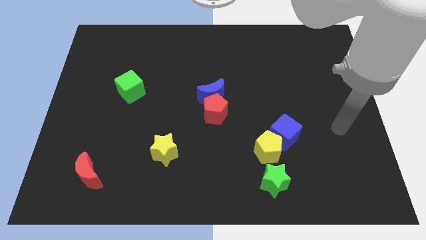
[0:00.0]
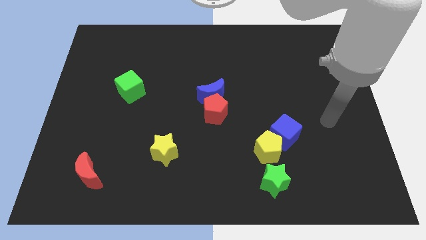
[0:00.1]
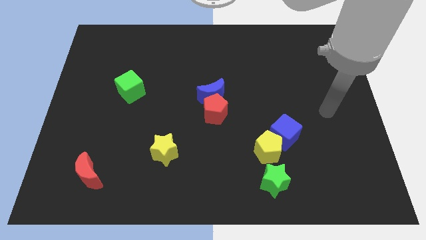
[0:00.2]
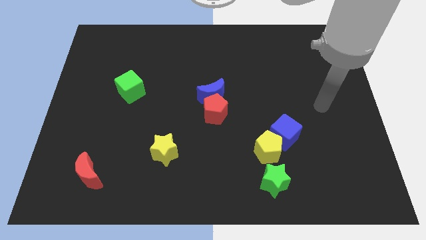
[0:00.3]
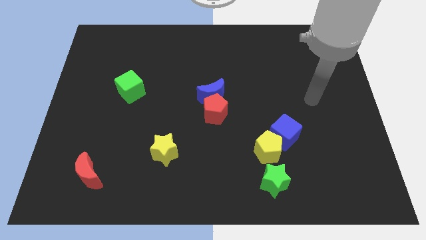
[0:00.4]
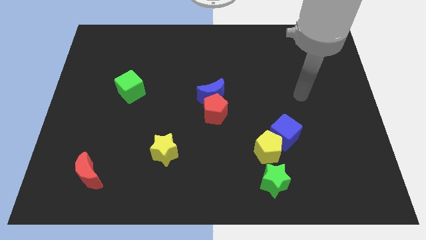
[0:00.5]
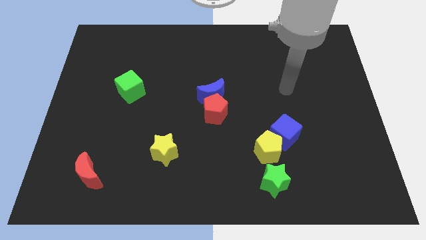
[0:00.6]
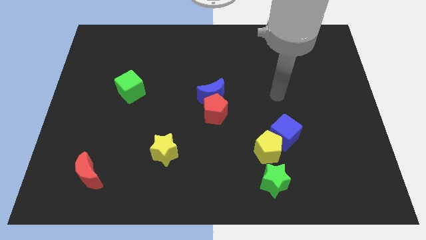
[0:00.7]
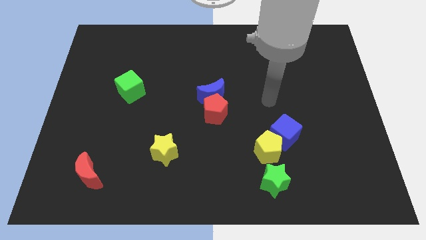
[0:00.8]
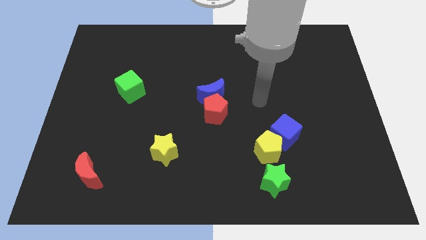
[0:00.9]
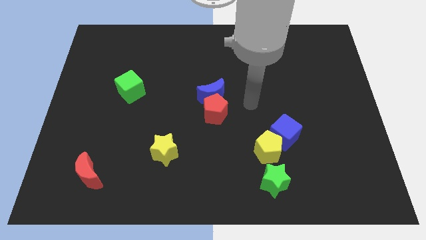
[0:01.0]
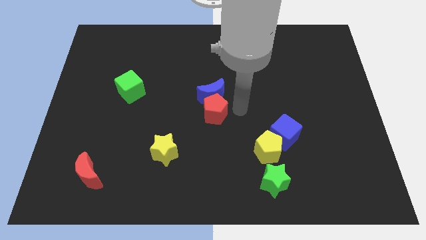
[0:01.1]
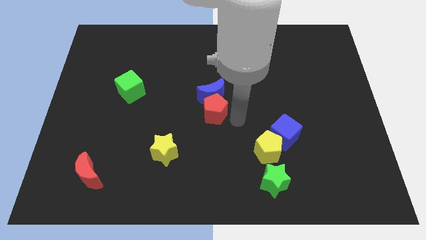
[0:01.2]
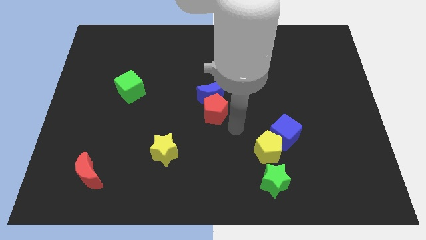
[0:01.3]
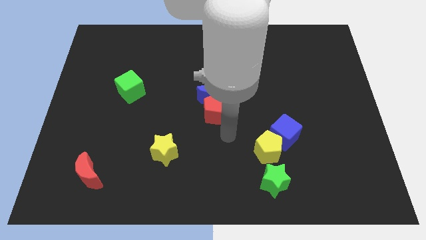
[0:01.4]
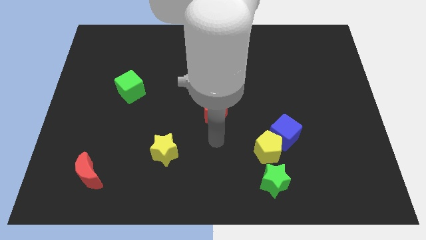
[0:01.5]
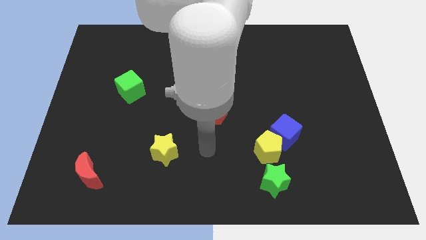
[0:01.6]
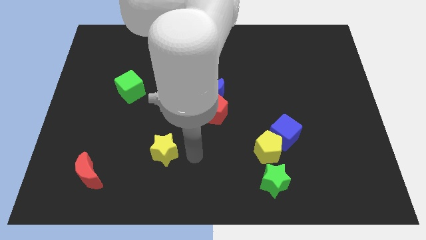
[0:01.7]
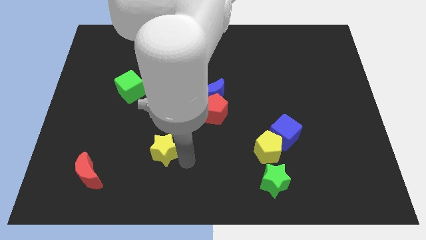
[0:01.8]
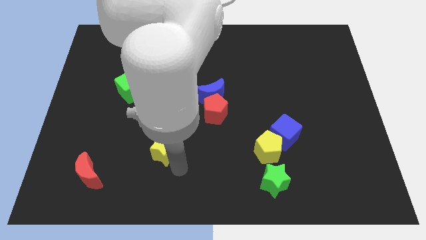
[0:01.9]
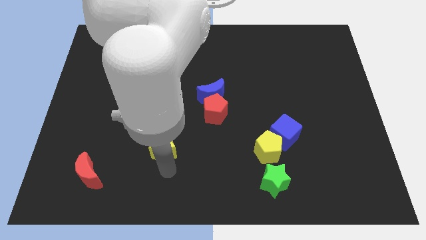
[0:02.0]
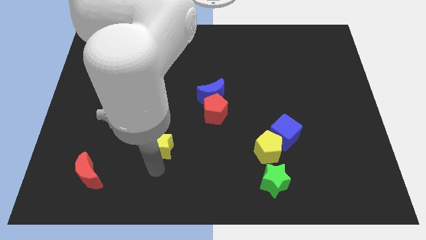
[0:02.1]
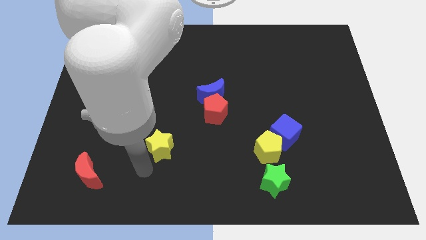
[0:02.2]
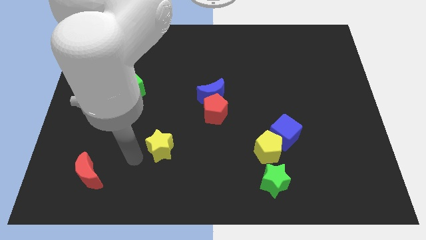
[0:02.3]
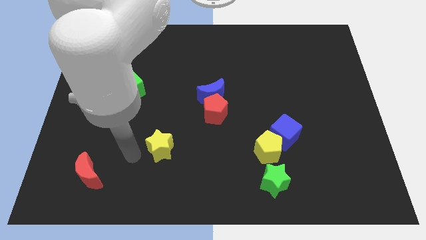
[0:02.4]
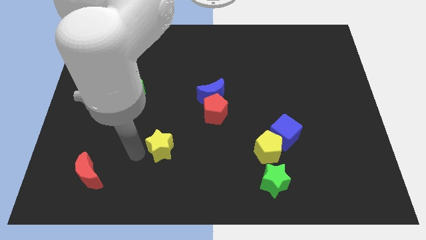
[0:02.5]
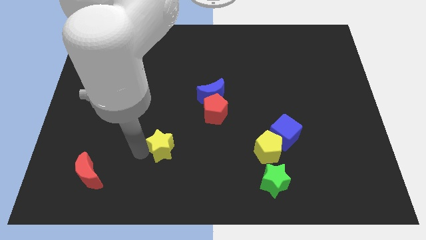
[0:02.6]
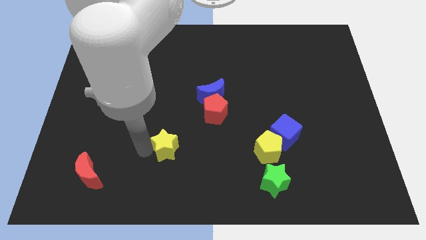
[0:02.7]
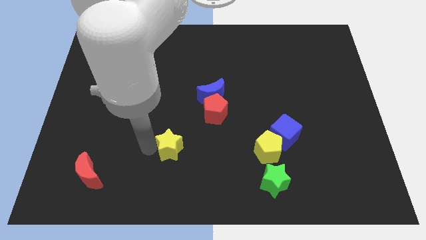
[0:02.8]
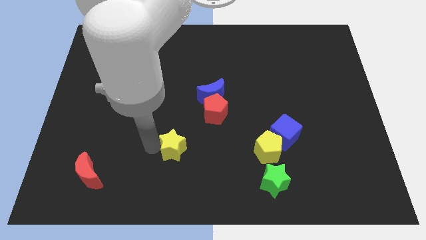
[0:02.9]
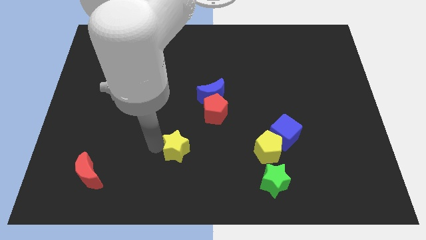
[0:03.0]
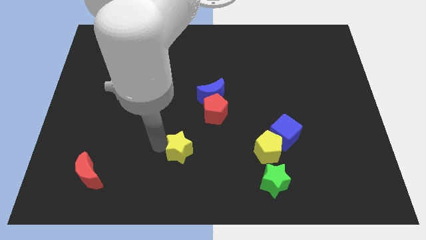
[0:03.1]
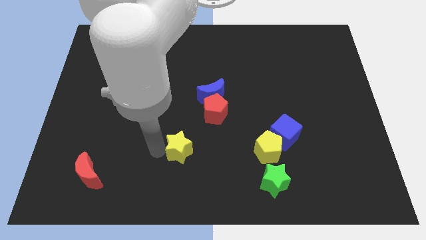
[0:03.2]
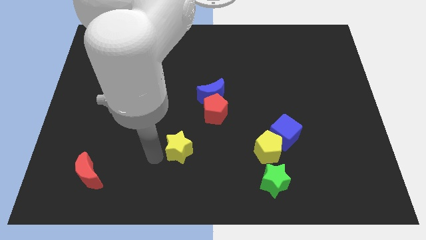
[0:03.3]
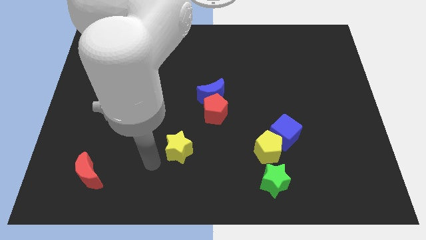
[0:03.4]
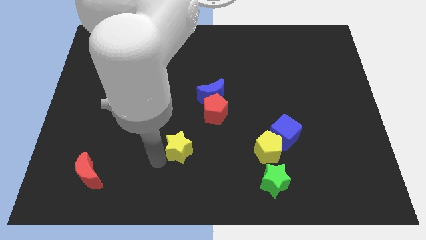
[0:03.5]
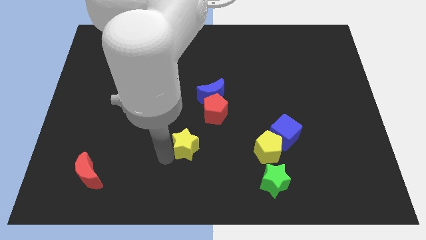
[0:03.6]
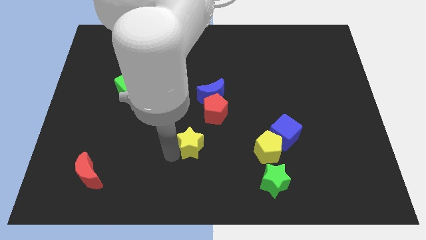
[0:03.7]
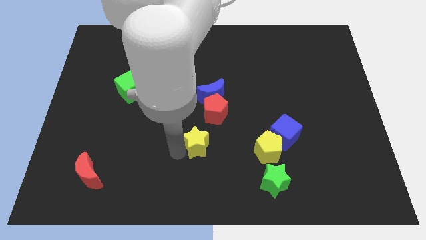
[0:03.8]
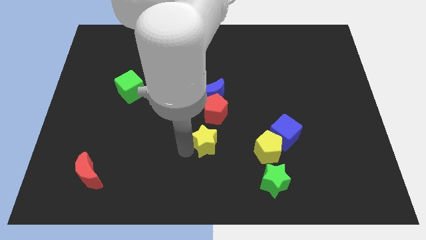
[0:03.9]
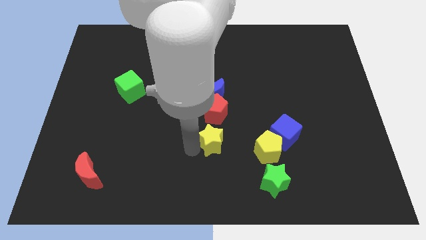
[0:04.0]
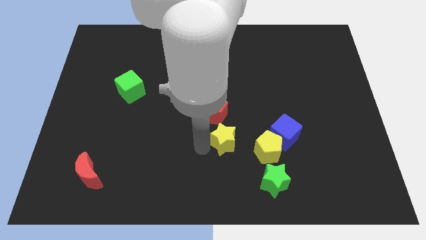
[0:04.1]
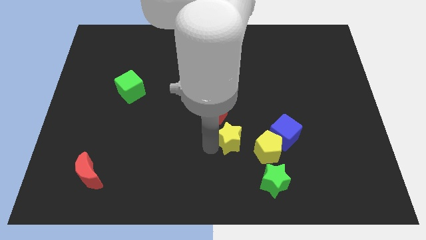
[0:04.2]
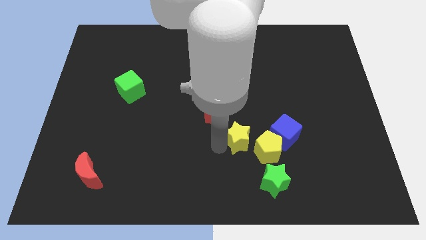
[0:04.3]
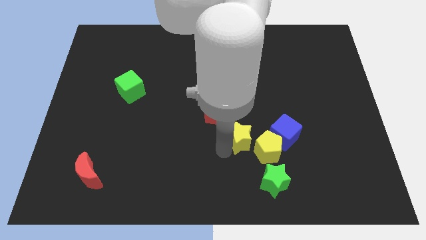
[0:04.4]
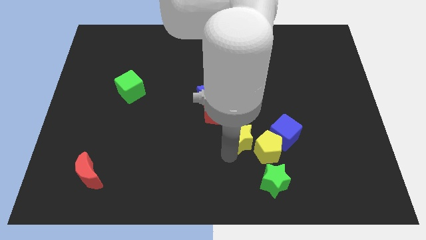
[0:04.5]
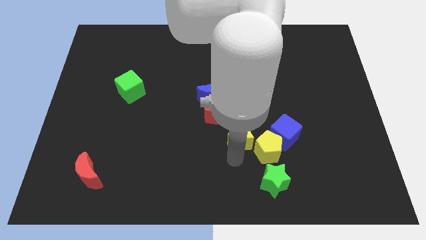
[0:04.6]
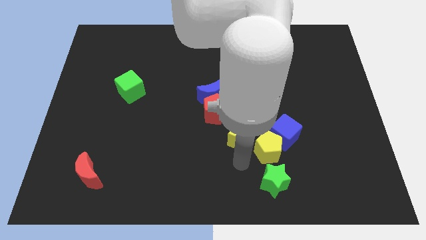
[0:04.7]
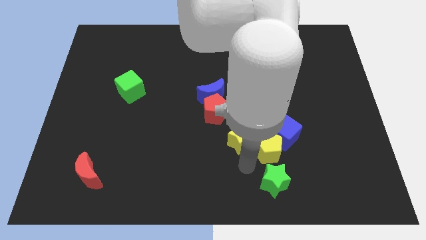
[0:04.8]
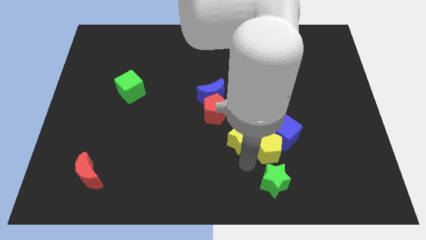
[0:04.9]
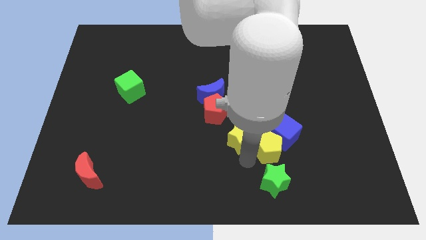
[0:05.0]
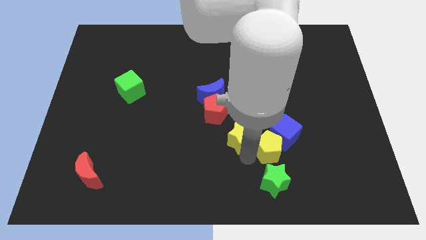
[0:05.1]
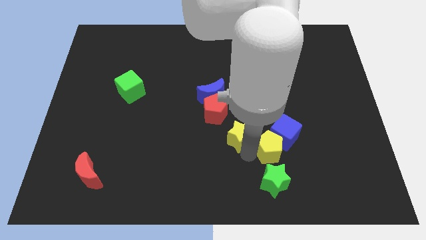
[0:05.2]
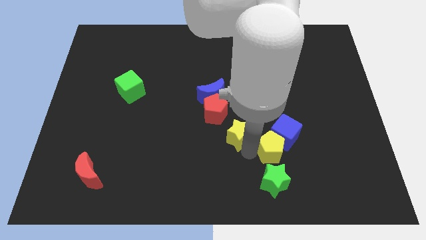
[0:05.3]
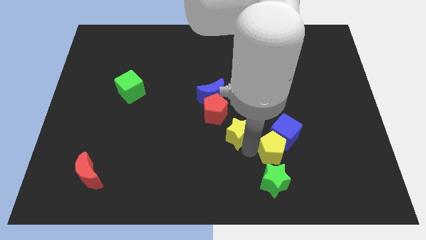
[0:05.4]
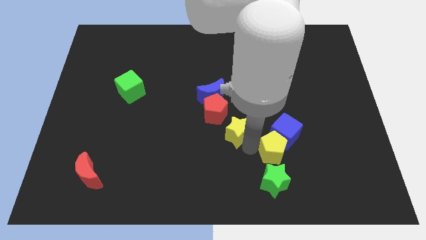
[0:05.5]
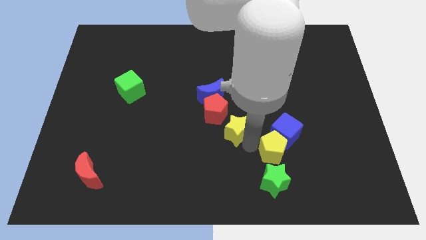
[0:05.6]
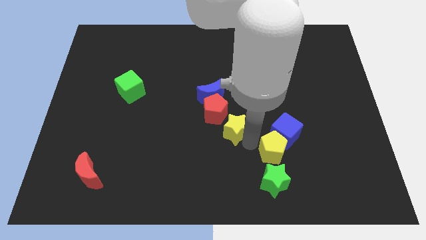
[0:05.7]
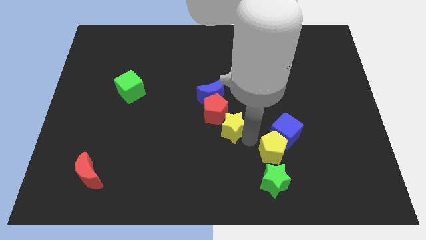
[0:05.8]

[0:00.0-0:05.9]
move the yellow star to the right side of the red pentagon
